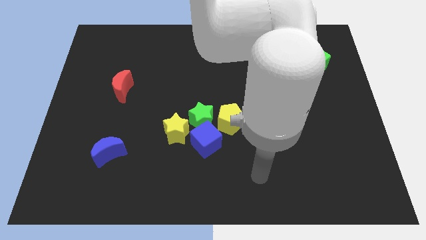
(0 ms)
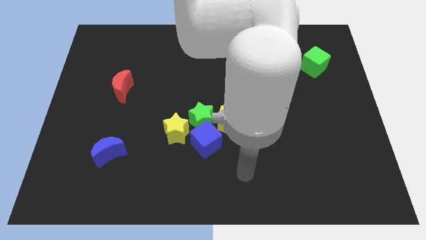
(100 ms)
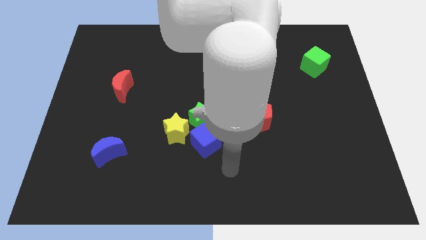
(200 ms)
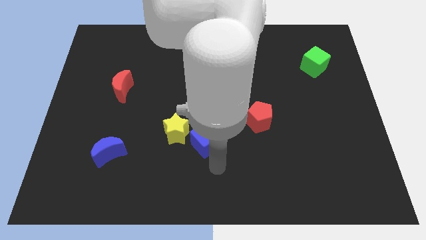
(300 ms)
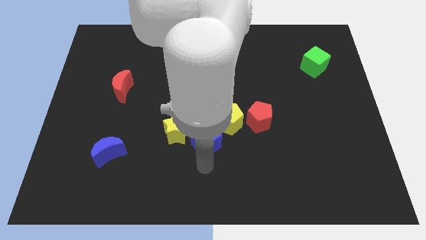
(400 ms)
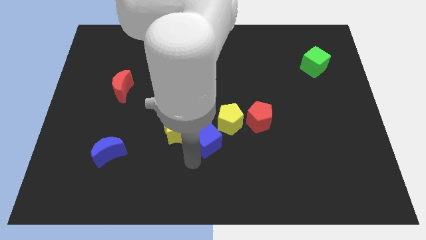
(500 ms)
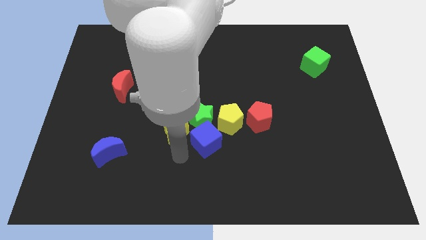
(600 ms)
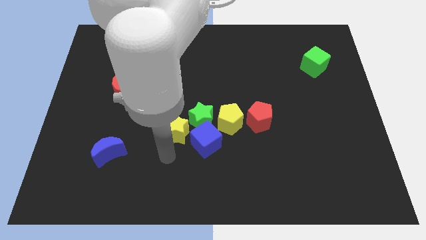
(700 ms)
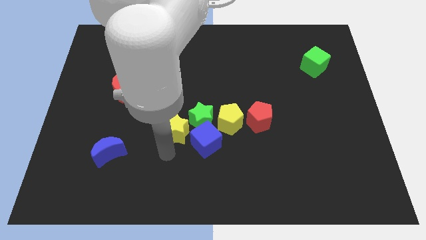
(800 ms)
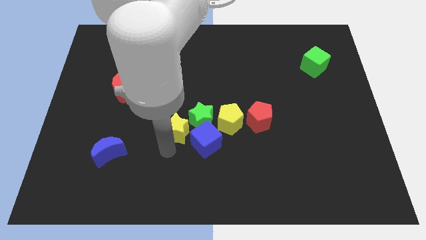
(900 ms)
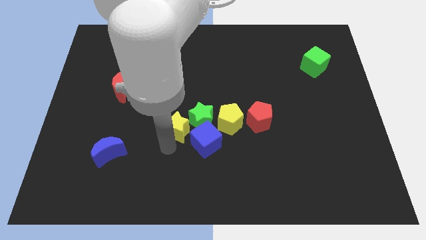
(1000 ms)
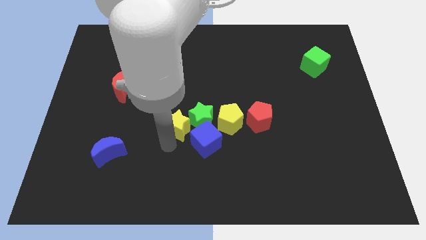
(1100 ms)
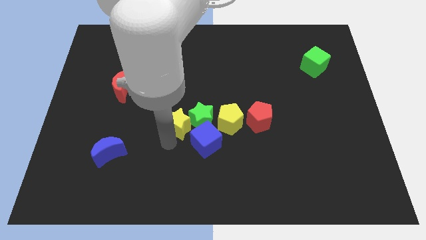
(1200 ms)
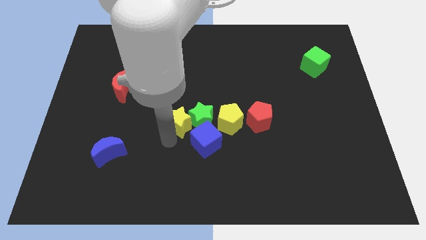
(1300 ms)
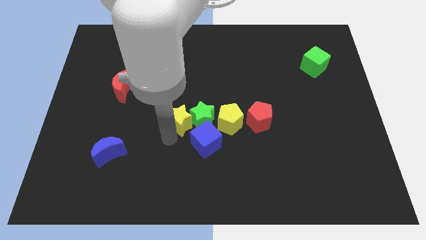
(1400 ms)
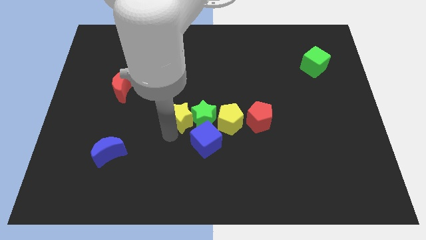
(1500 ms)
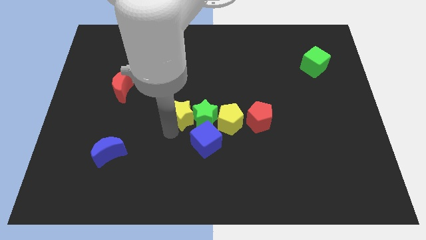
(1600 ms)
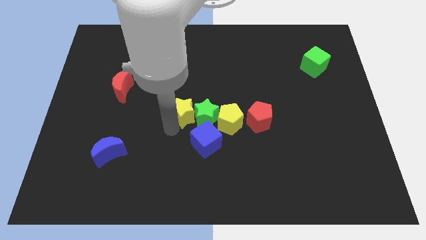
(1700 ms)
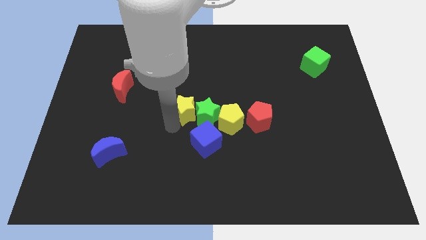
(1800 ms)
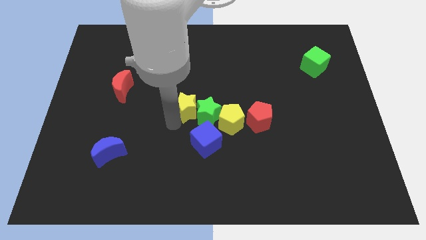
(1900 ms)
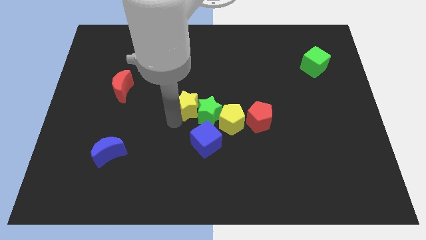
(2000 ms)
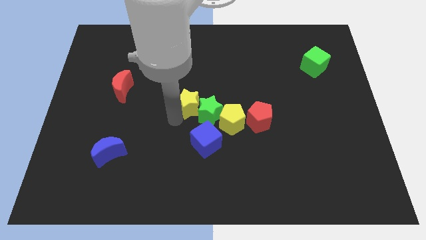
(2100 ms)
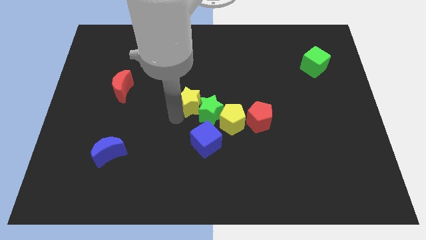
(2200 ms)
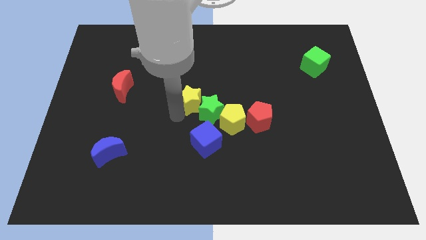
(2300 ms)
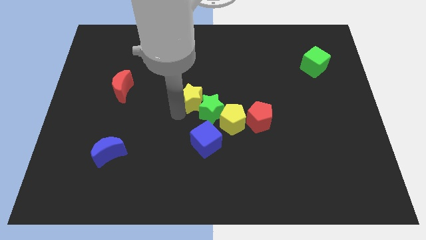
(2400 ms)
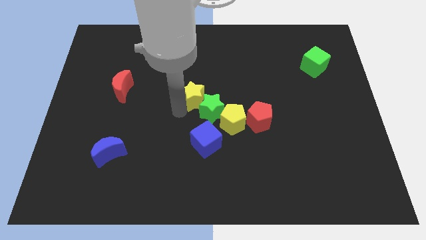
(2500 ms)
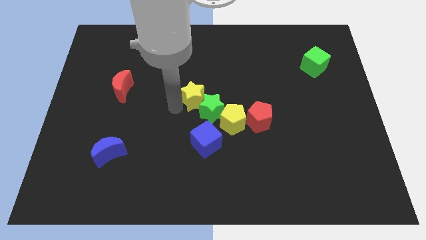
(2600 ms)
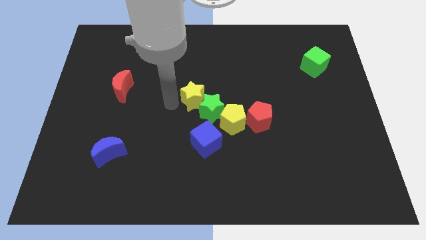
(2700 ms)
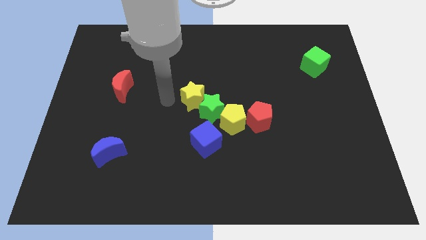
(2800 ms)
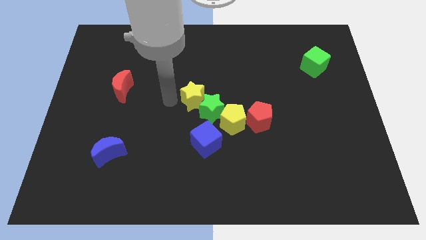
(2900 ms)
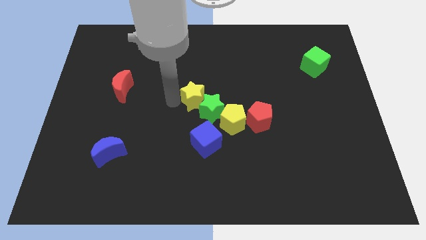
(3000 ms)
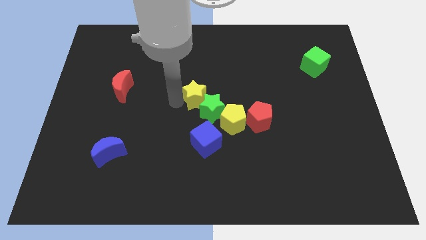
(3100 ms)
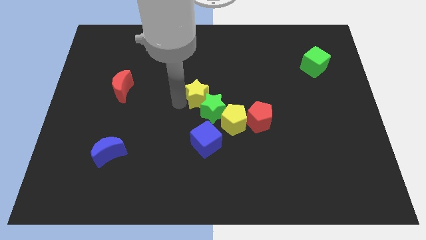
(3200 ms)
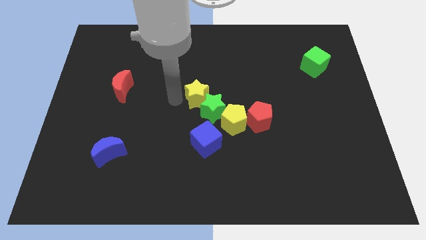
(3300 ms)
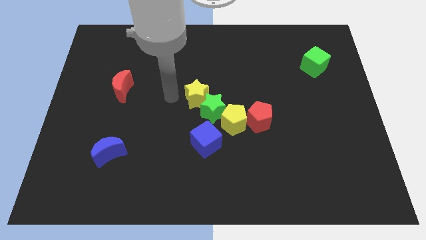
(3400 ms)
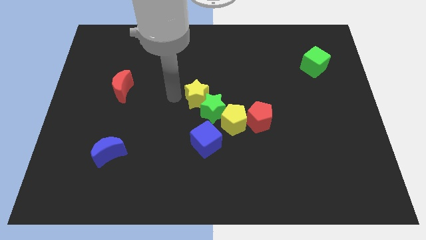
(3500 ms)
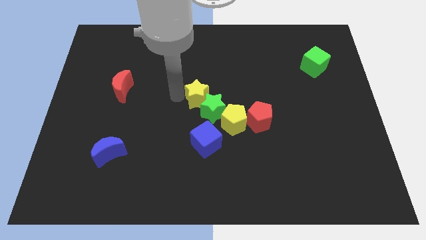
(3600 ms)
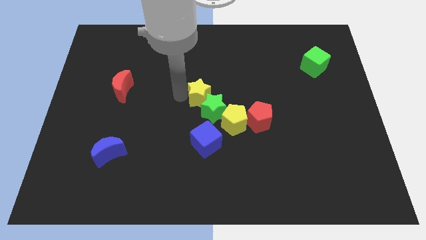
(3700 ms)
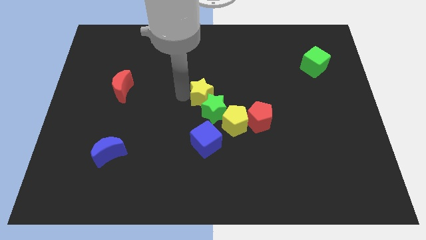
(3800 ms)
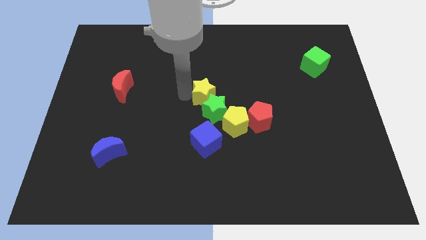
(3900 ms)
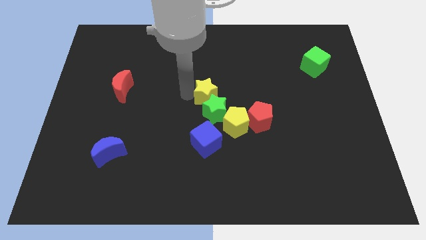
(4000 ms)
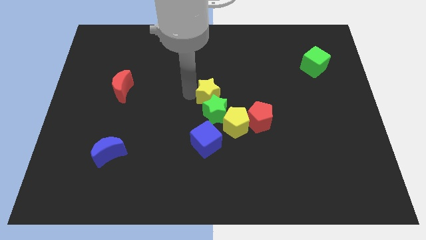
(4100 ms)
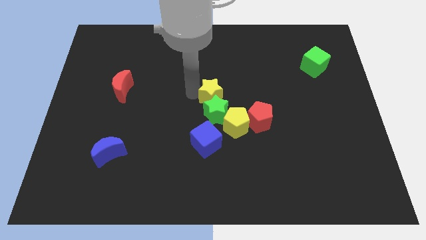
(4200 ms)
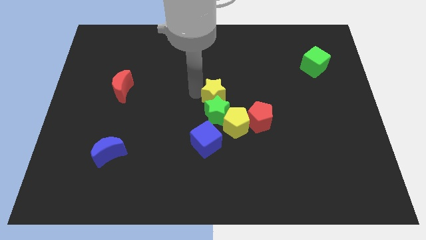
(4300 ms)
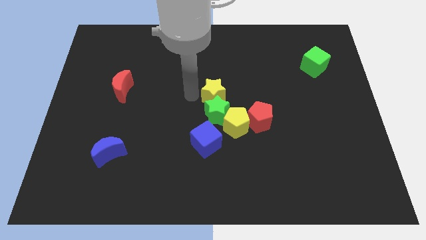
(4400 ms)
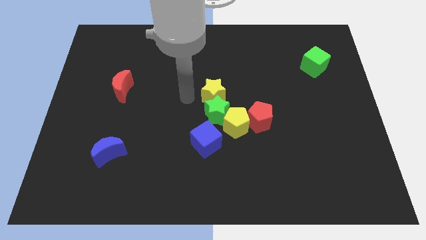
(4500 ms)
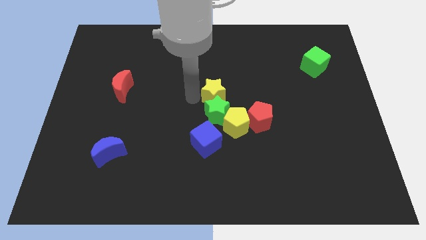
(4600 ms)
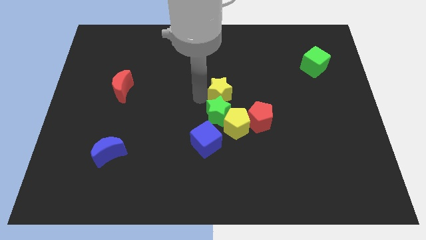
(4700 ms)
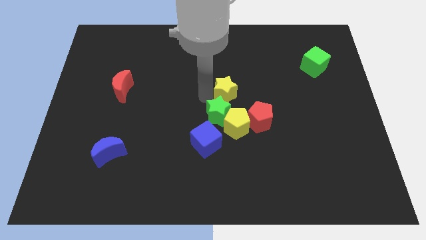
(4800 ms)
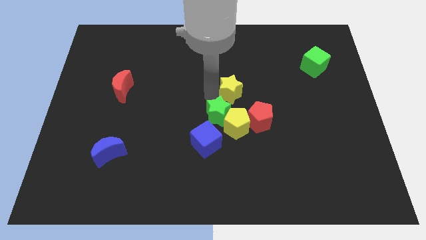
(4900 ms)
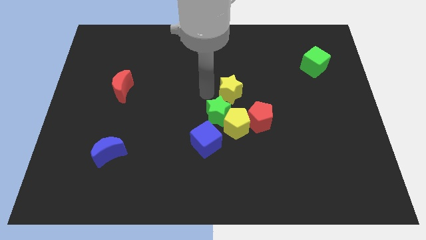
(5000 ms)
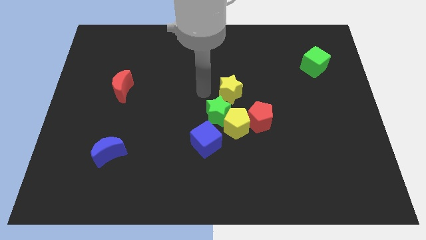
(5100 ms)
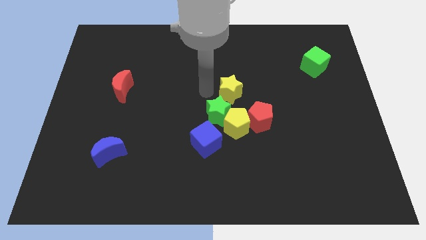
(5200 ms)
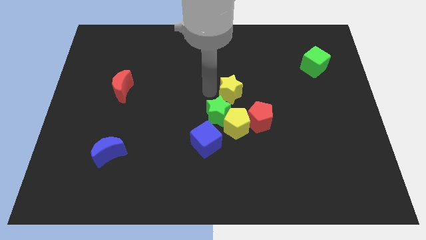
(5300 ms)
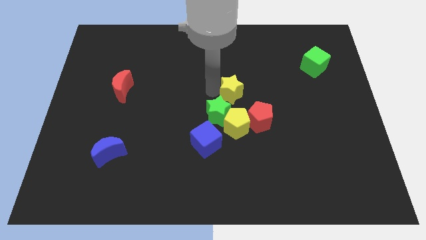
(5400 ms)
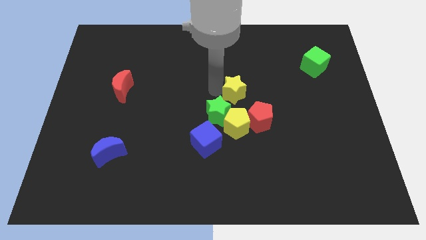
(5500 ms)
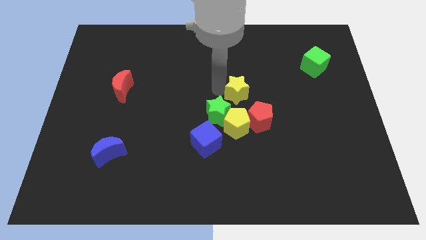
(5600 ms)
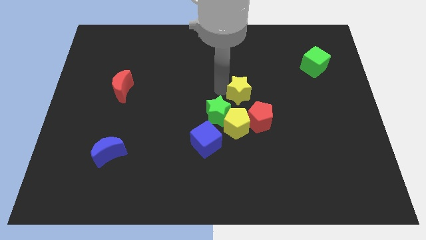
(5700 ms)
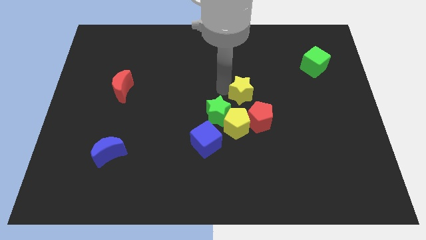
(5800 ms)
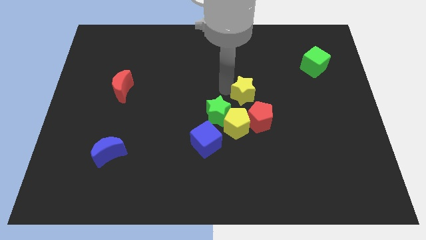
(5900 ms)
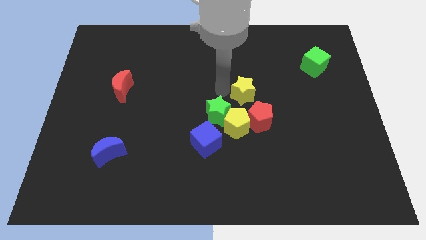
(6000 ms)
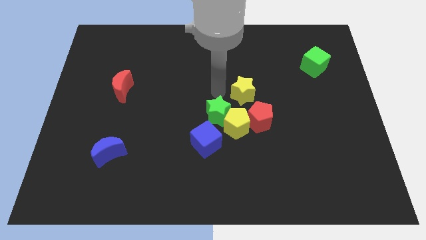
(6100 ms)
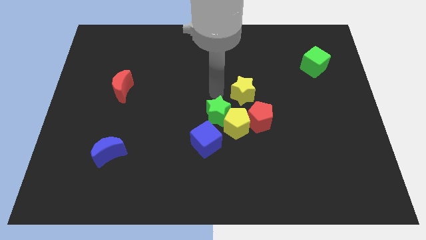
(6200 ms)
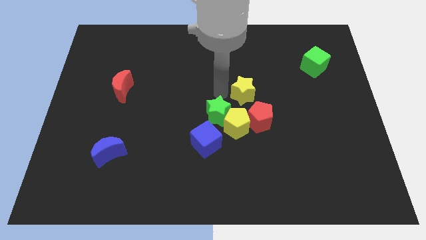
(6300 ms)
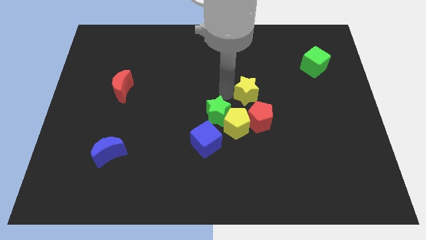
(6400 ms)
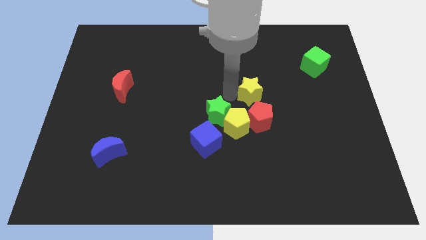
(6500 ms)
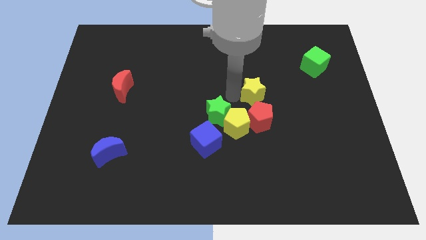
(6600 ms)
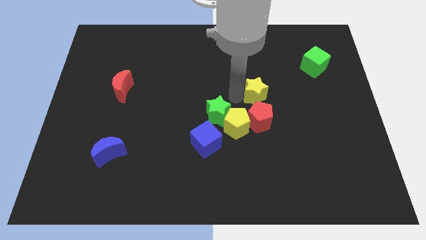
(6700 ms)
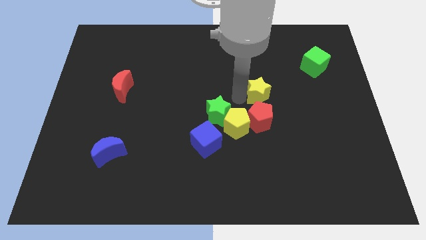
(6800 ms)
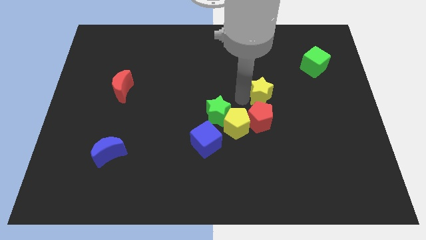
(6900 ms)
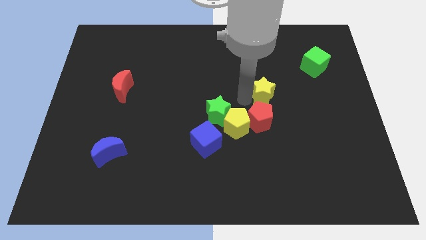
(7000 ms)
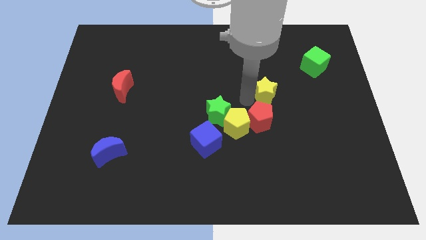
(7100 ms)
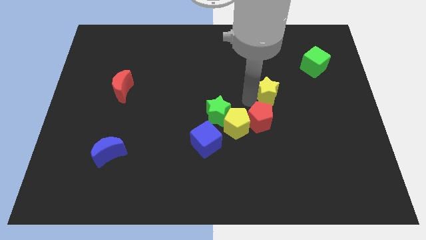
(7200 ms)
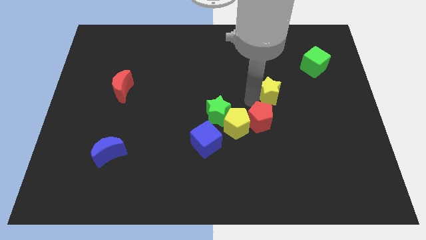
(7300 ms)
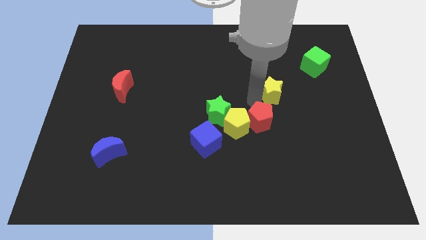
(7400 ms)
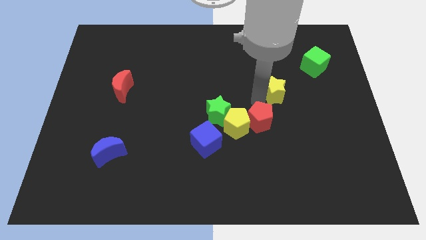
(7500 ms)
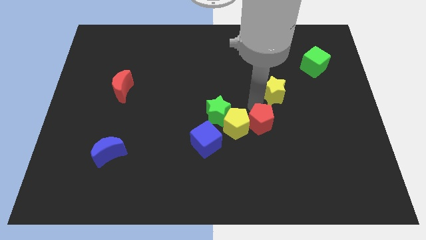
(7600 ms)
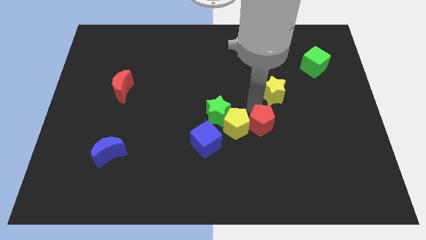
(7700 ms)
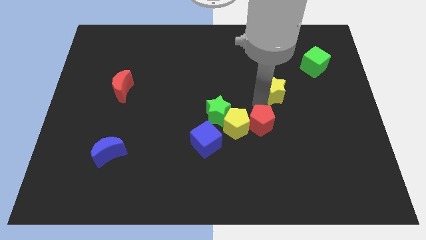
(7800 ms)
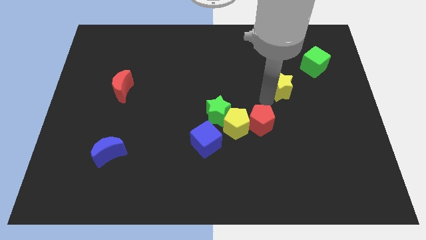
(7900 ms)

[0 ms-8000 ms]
slide the yellow star to the bottom left of the green cube
